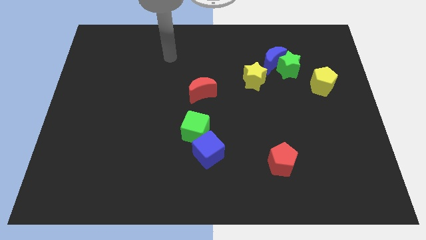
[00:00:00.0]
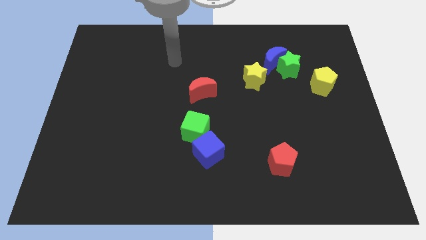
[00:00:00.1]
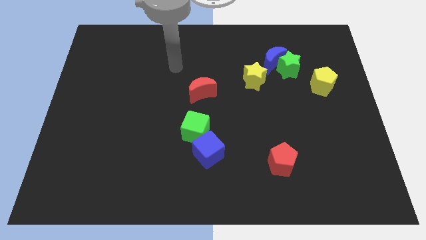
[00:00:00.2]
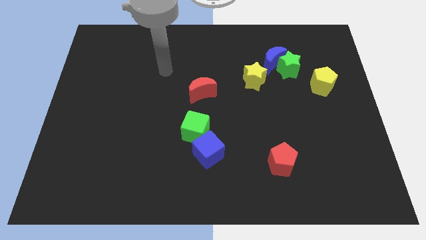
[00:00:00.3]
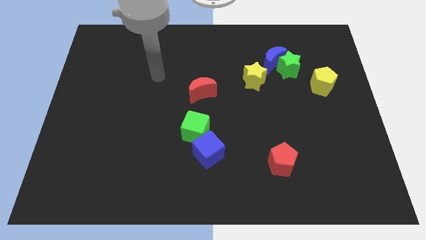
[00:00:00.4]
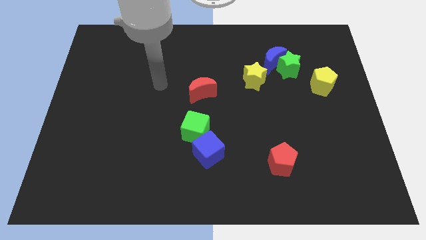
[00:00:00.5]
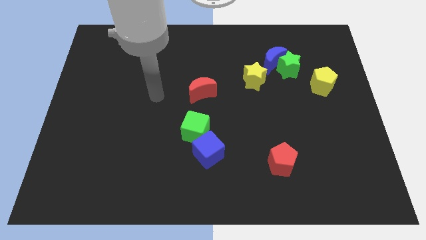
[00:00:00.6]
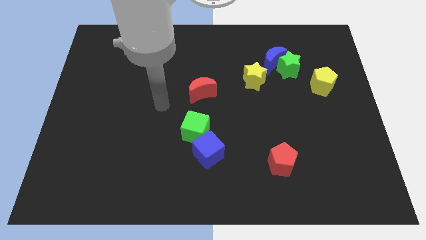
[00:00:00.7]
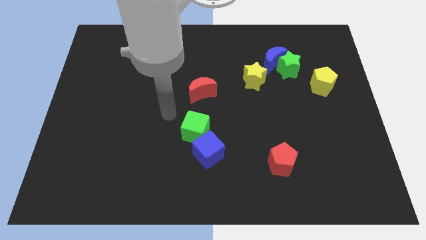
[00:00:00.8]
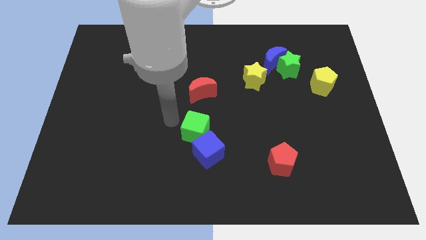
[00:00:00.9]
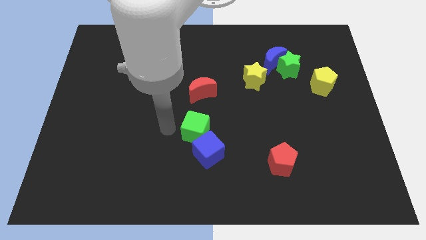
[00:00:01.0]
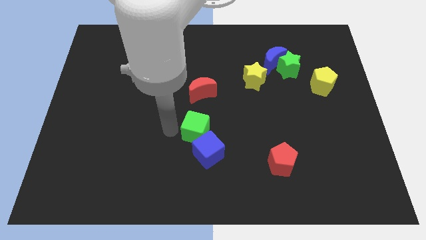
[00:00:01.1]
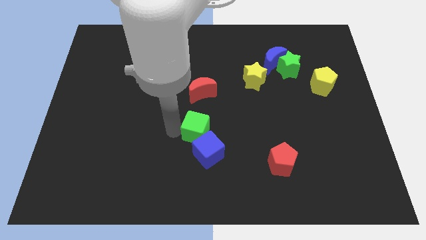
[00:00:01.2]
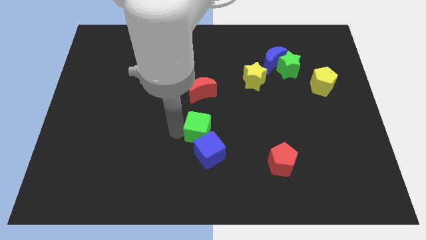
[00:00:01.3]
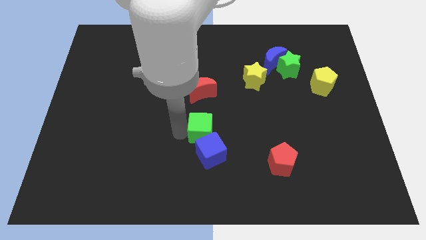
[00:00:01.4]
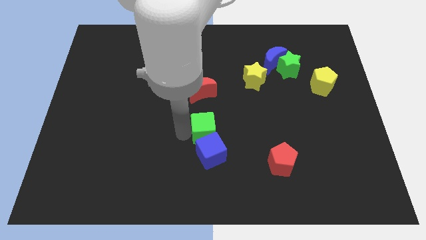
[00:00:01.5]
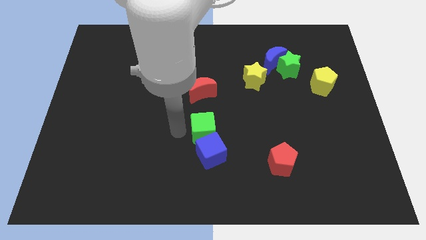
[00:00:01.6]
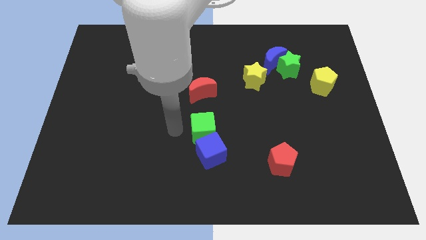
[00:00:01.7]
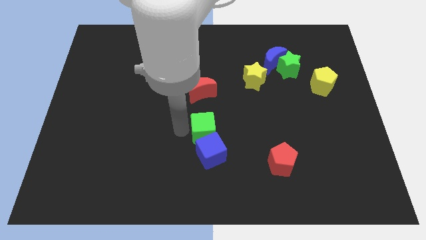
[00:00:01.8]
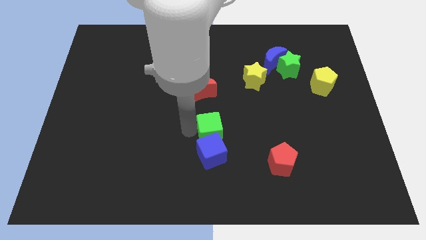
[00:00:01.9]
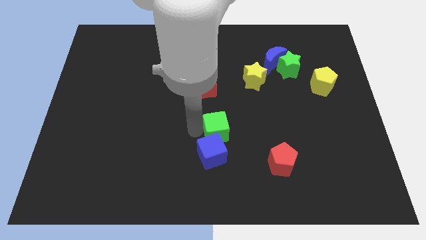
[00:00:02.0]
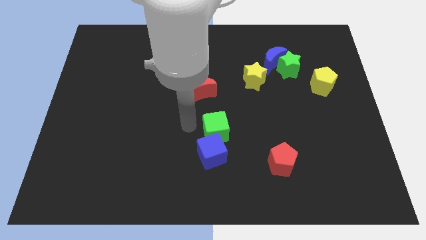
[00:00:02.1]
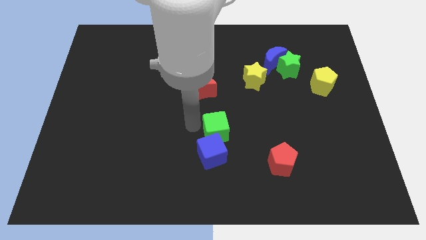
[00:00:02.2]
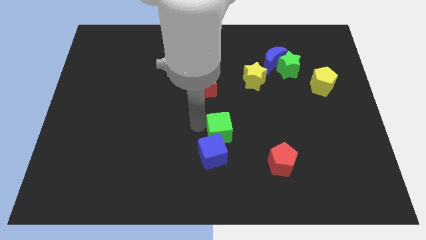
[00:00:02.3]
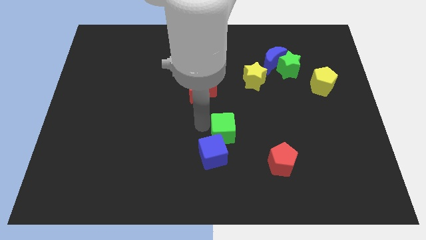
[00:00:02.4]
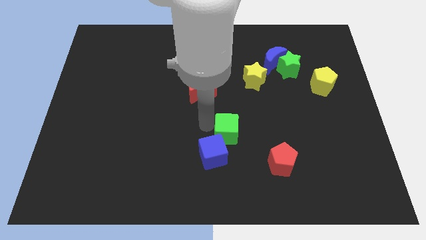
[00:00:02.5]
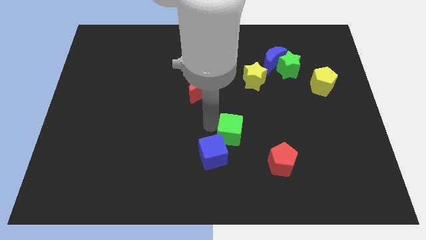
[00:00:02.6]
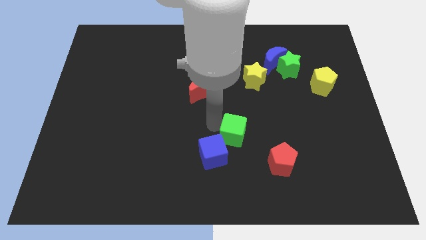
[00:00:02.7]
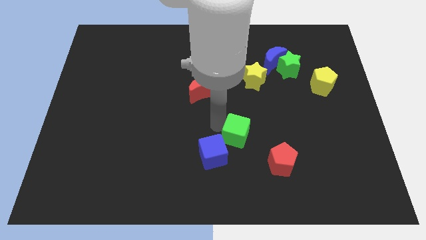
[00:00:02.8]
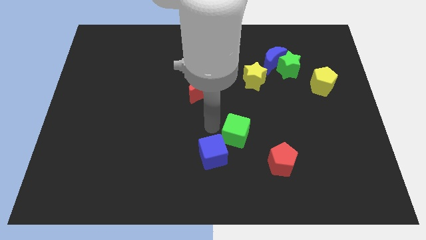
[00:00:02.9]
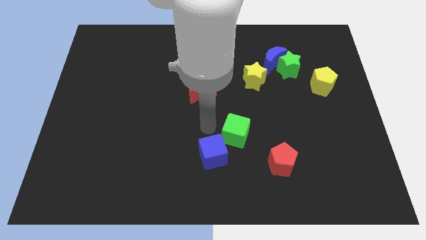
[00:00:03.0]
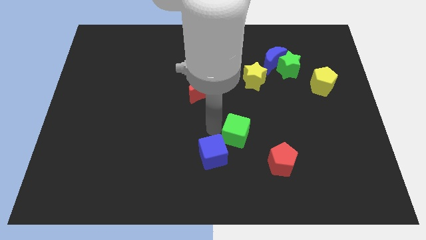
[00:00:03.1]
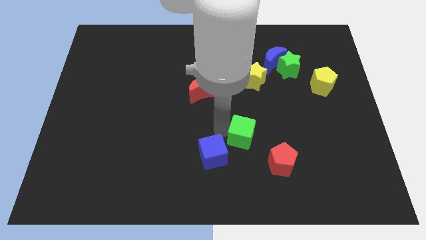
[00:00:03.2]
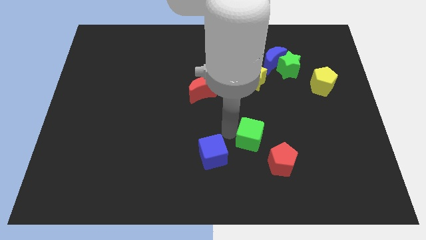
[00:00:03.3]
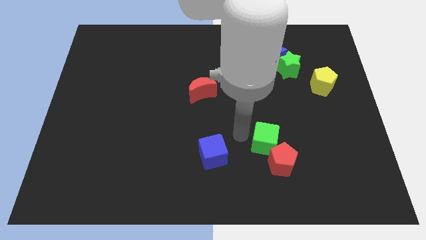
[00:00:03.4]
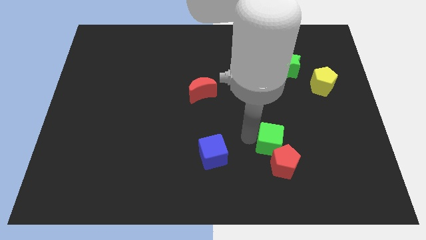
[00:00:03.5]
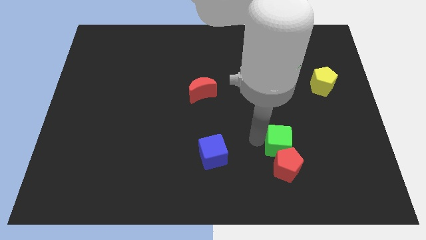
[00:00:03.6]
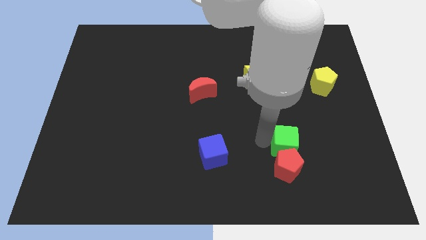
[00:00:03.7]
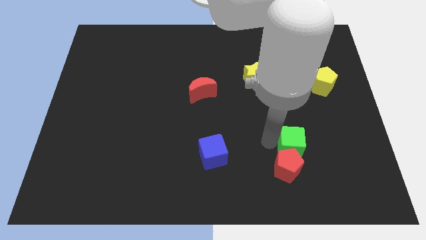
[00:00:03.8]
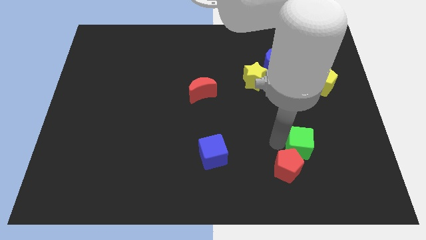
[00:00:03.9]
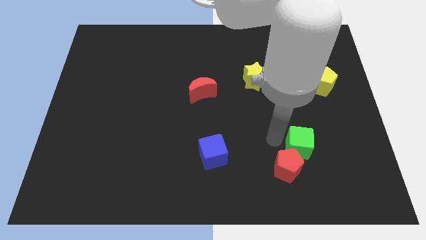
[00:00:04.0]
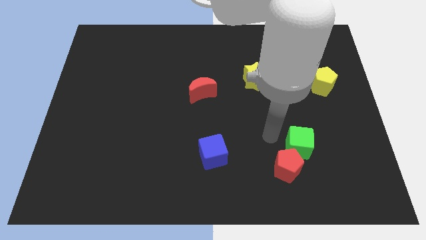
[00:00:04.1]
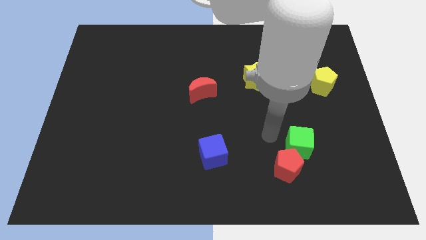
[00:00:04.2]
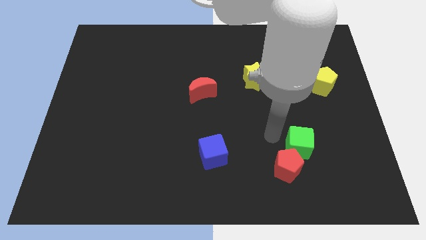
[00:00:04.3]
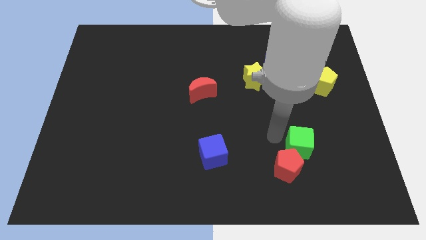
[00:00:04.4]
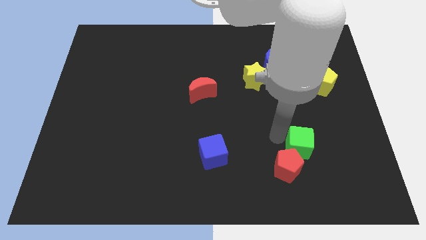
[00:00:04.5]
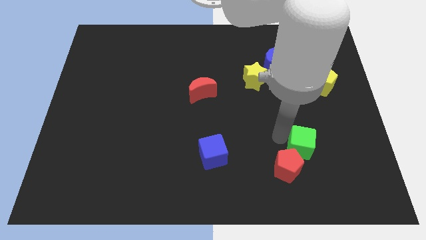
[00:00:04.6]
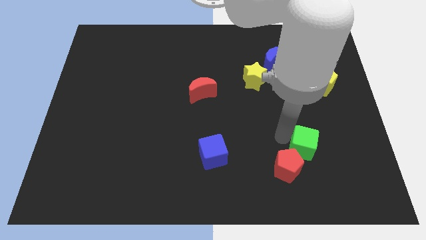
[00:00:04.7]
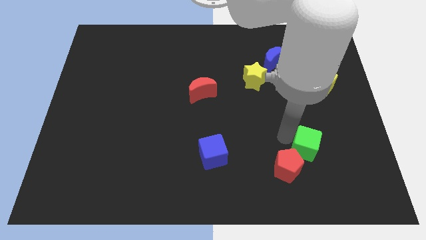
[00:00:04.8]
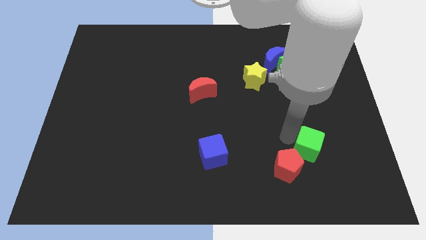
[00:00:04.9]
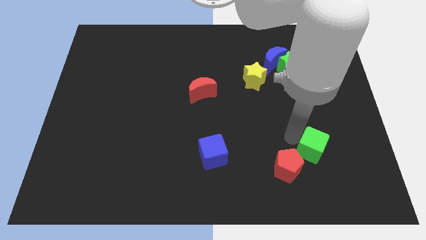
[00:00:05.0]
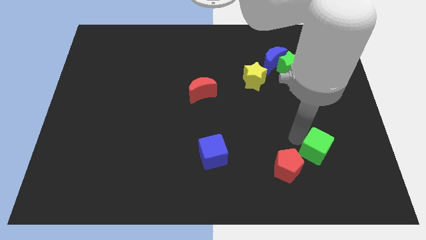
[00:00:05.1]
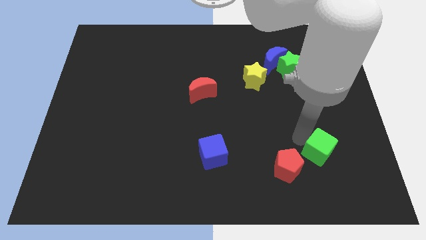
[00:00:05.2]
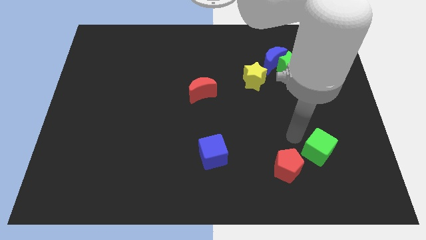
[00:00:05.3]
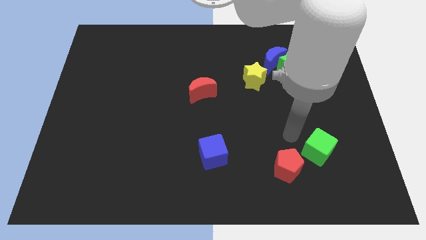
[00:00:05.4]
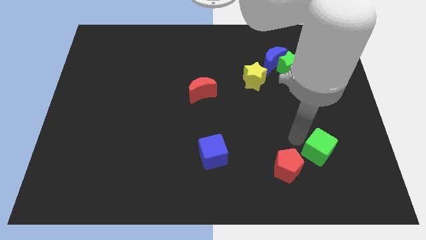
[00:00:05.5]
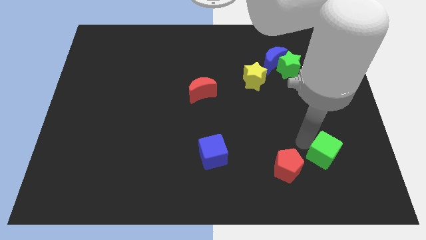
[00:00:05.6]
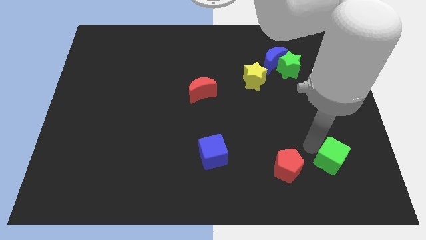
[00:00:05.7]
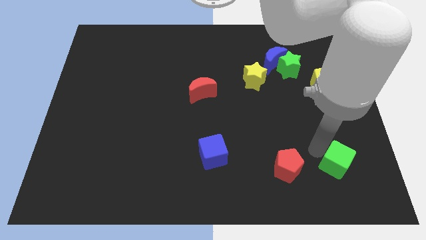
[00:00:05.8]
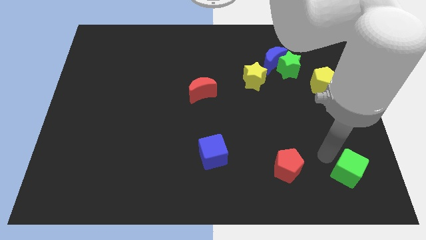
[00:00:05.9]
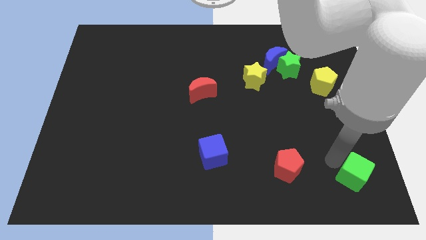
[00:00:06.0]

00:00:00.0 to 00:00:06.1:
put the green cube to the lower right corner
